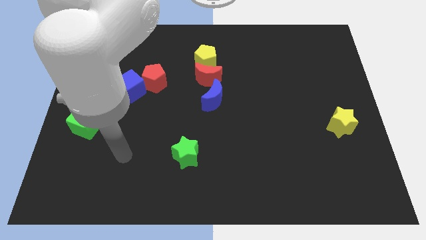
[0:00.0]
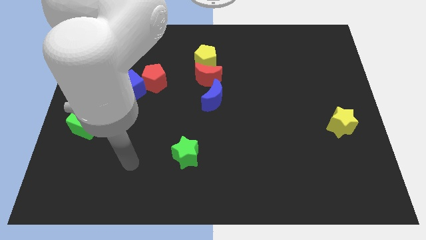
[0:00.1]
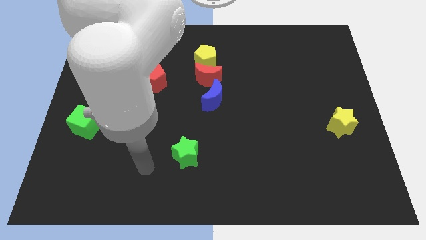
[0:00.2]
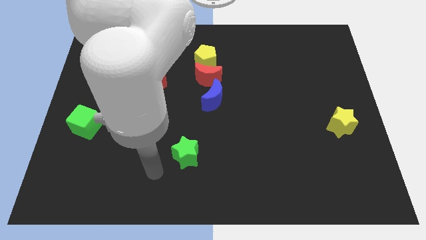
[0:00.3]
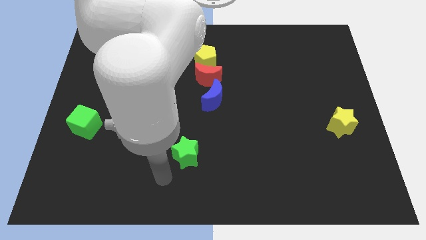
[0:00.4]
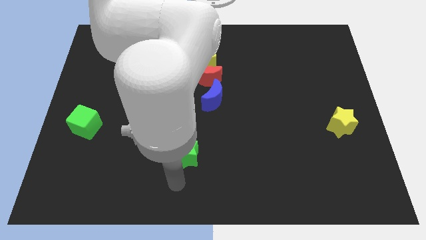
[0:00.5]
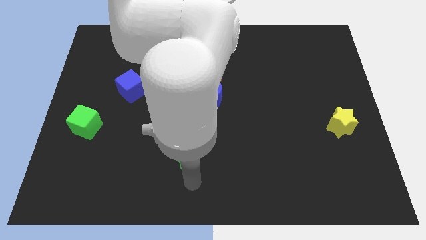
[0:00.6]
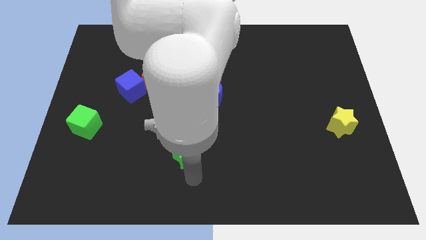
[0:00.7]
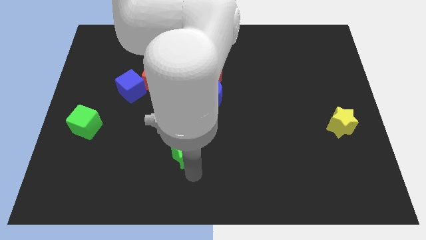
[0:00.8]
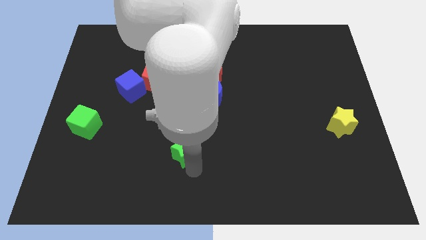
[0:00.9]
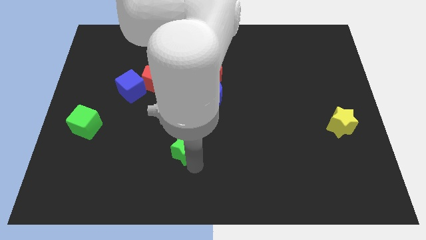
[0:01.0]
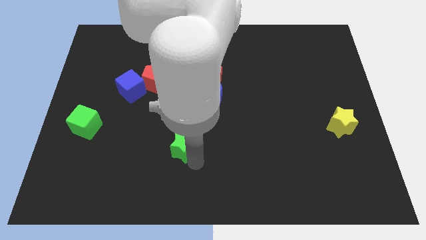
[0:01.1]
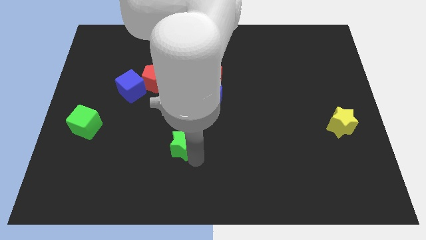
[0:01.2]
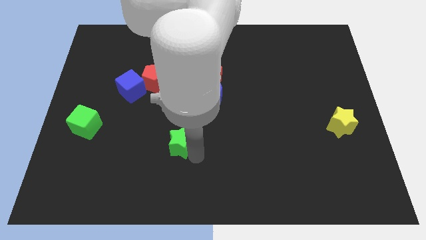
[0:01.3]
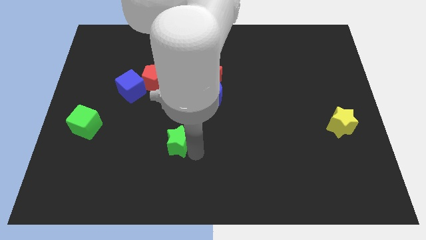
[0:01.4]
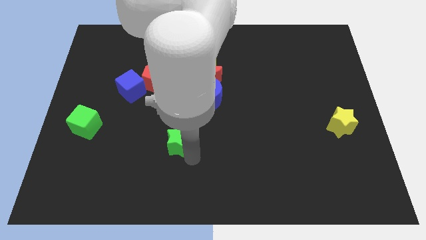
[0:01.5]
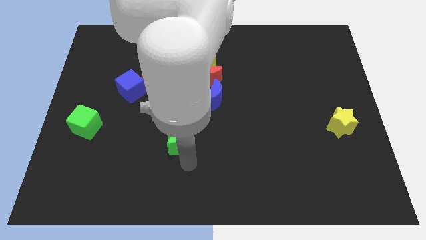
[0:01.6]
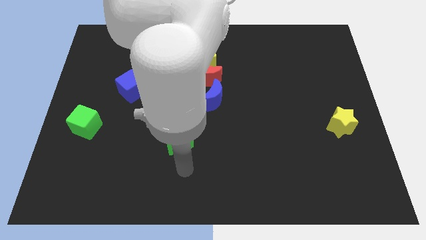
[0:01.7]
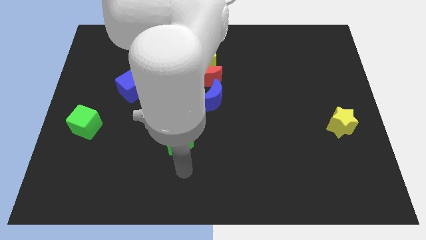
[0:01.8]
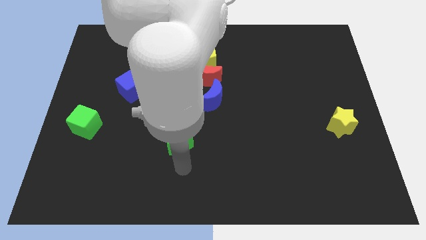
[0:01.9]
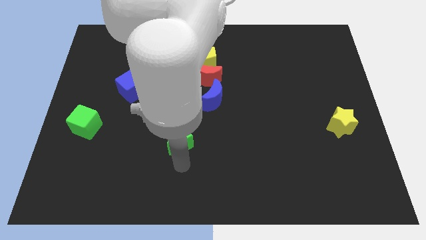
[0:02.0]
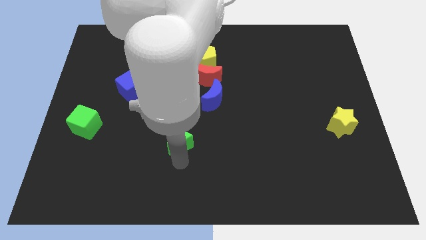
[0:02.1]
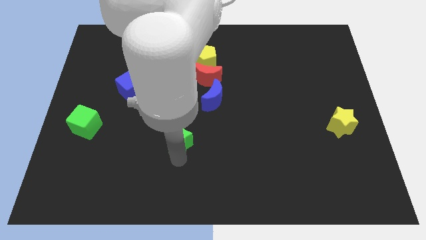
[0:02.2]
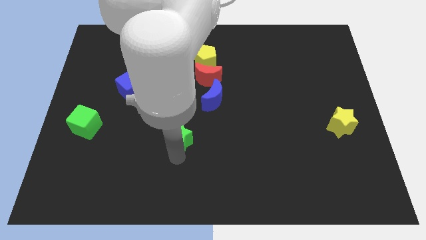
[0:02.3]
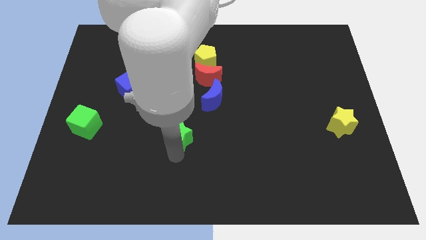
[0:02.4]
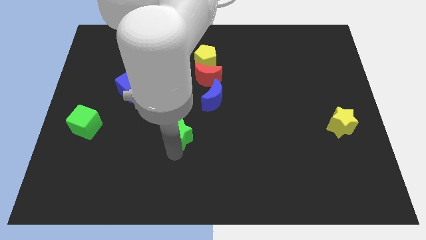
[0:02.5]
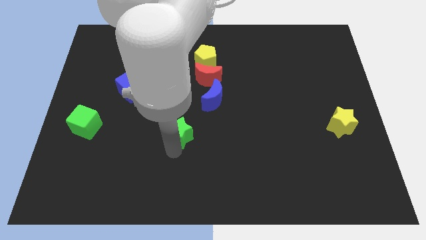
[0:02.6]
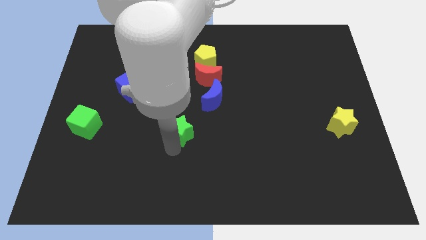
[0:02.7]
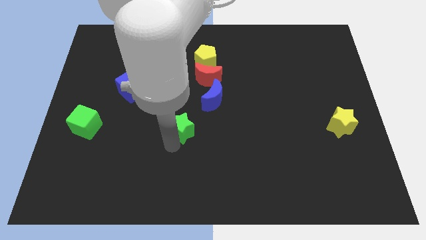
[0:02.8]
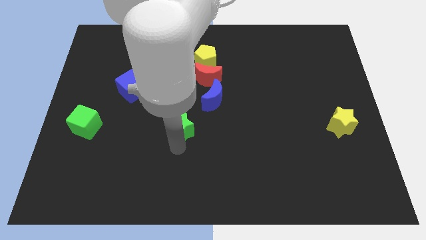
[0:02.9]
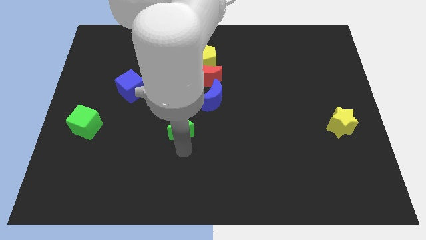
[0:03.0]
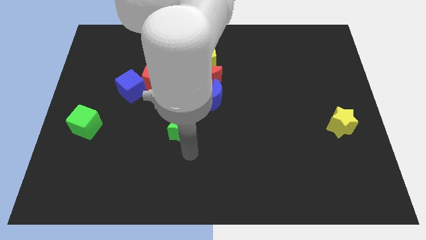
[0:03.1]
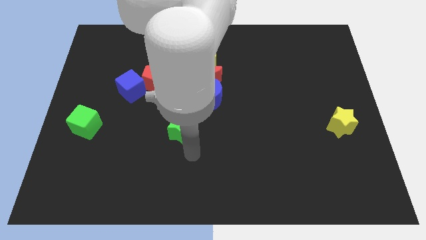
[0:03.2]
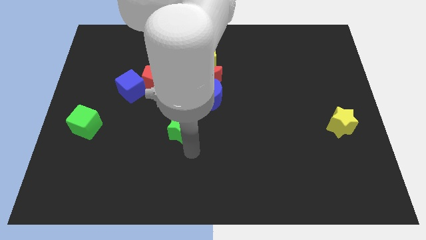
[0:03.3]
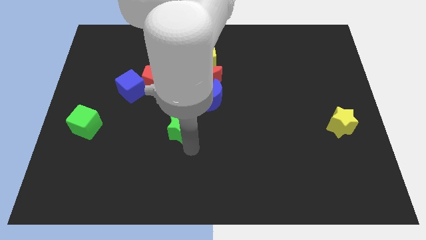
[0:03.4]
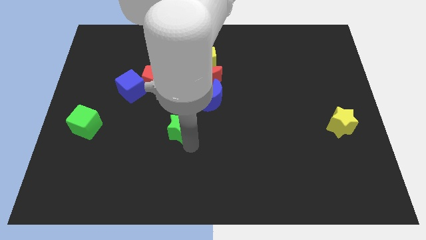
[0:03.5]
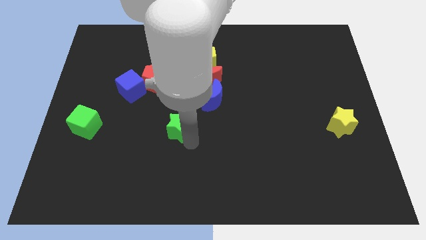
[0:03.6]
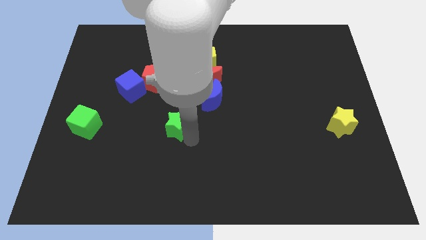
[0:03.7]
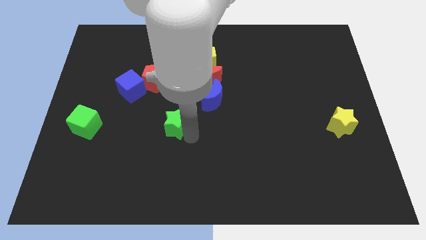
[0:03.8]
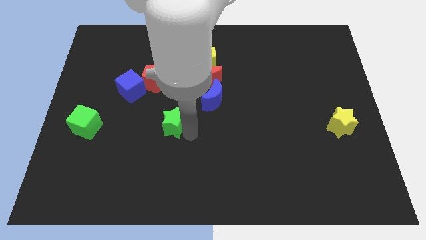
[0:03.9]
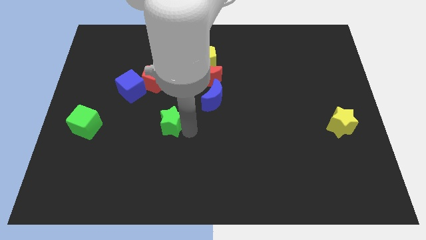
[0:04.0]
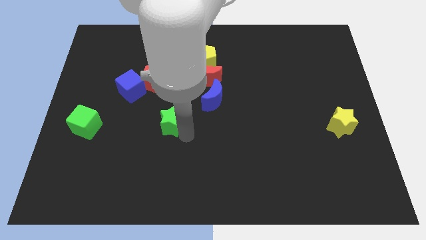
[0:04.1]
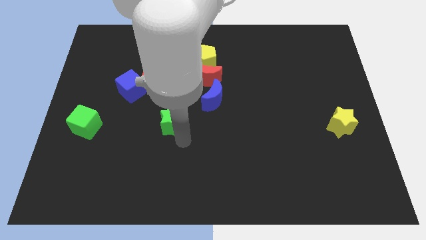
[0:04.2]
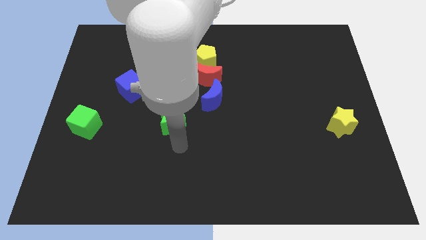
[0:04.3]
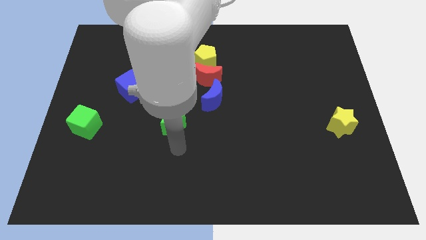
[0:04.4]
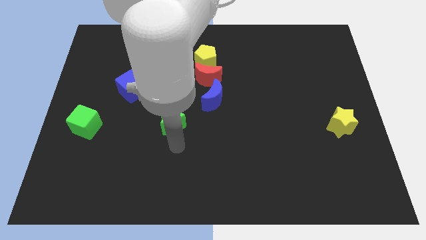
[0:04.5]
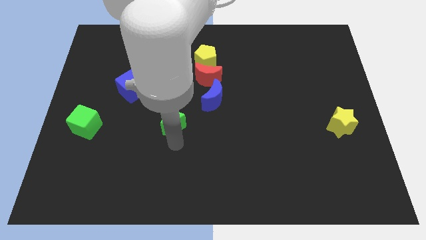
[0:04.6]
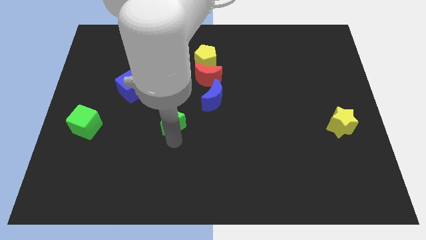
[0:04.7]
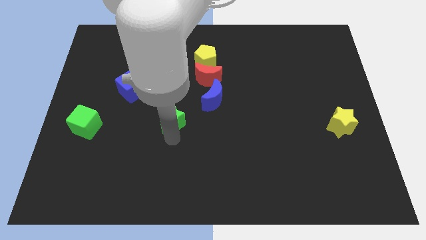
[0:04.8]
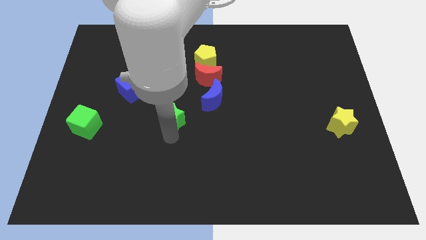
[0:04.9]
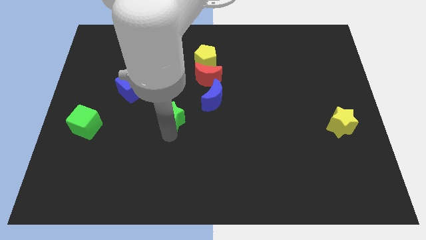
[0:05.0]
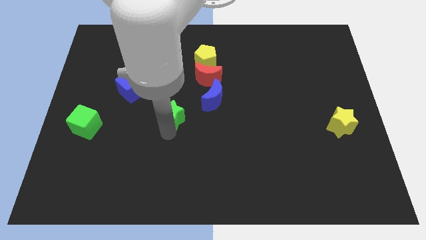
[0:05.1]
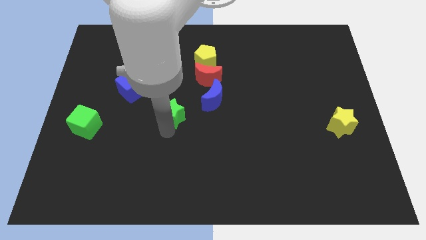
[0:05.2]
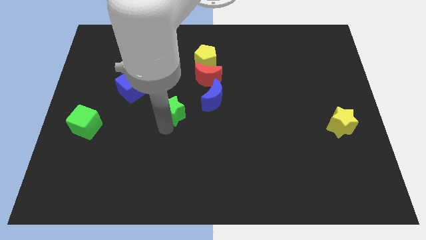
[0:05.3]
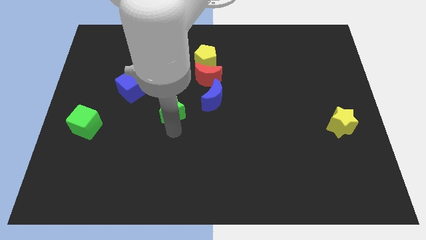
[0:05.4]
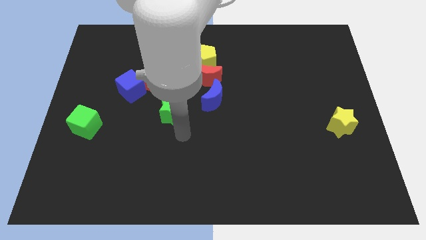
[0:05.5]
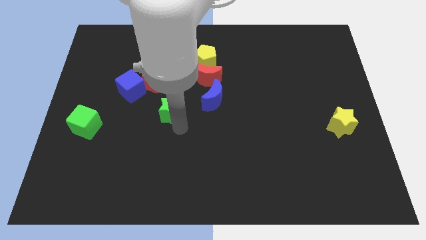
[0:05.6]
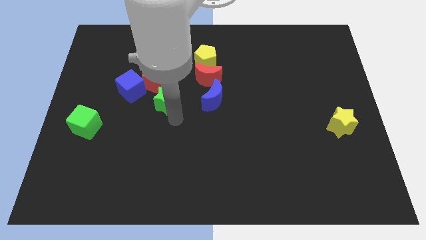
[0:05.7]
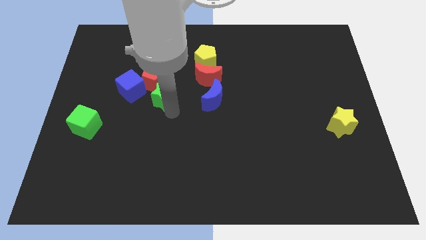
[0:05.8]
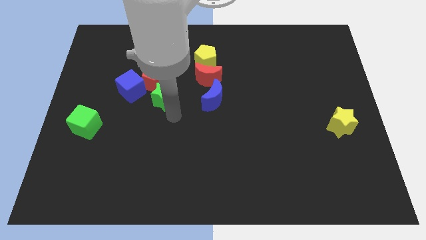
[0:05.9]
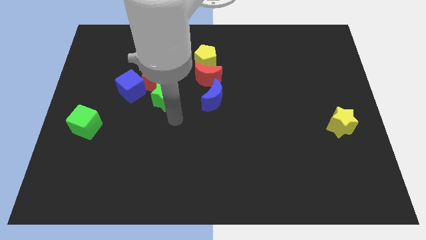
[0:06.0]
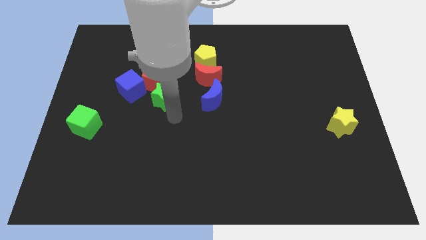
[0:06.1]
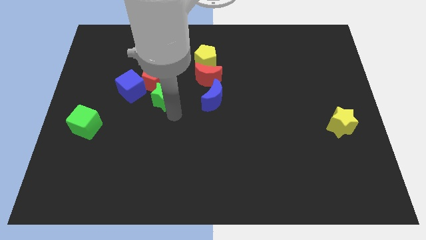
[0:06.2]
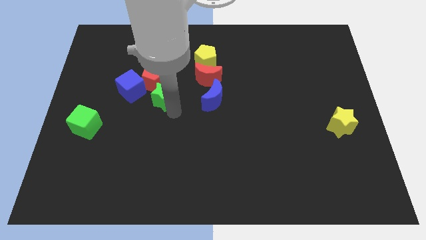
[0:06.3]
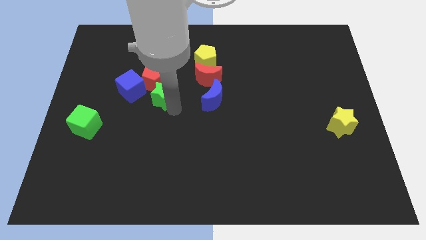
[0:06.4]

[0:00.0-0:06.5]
slide the green star next to the red pentagon
